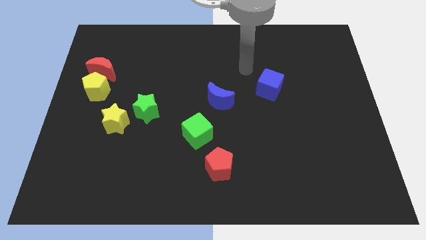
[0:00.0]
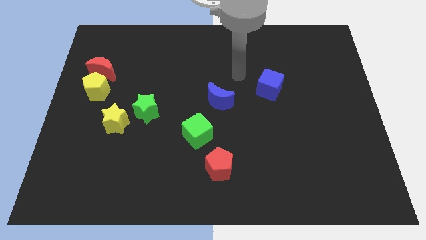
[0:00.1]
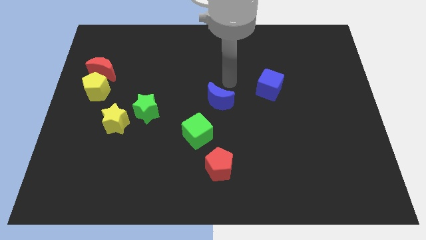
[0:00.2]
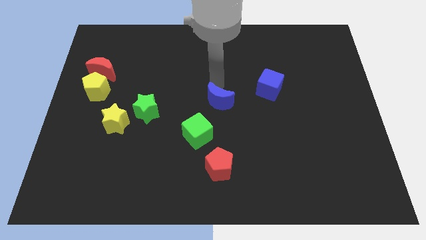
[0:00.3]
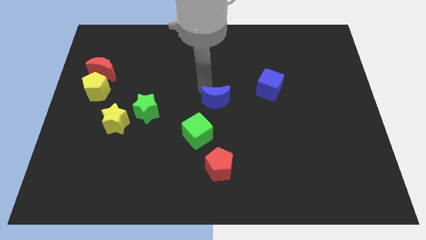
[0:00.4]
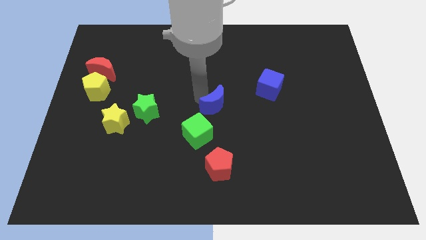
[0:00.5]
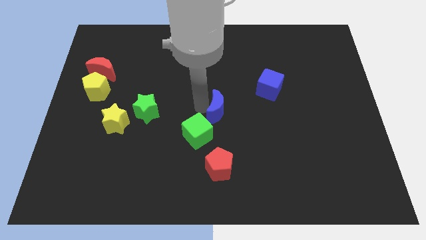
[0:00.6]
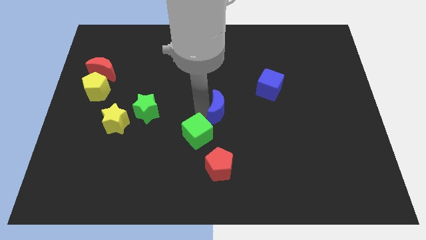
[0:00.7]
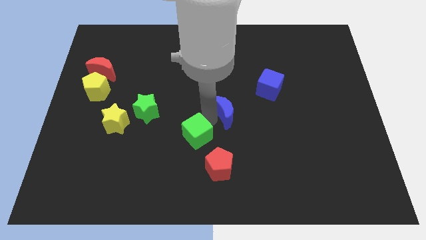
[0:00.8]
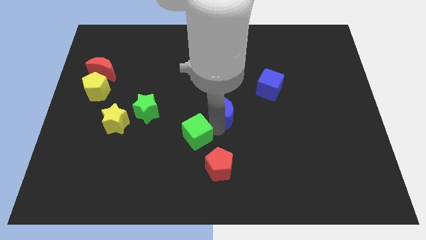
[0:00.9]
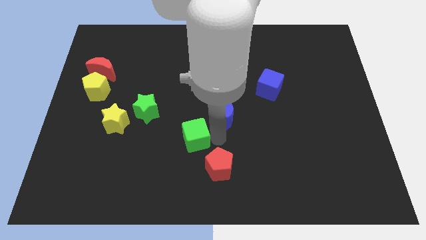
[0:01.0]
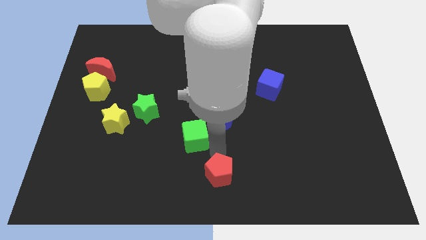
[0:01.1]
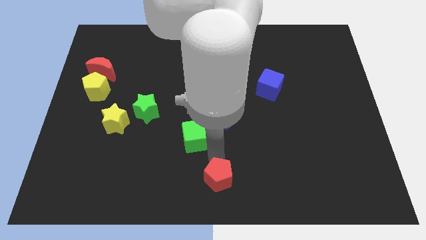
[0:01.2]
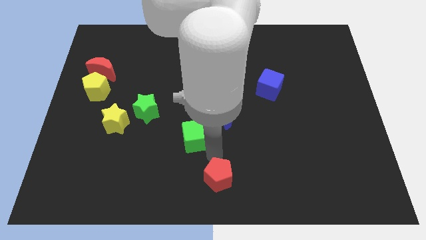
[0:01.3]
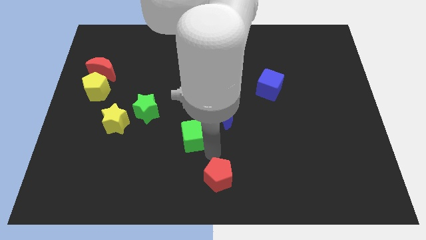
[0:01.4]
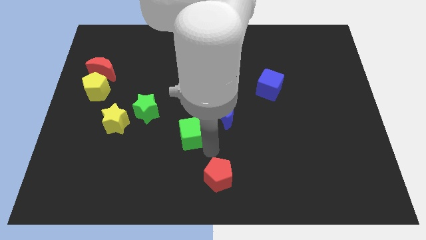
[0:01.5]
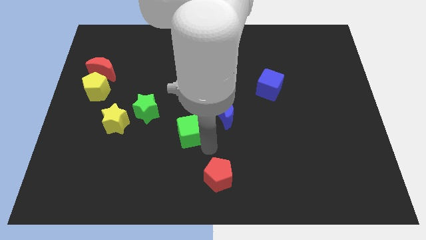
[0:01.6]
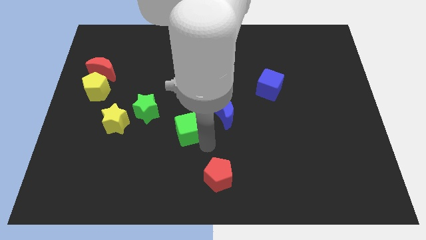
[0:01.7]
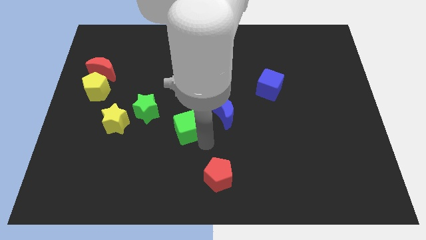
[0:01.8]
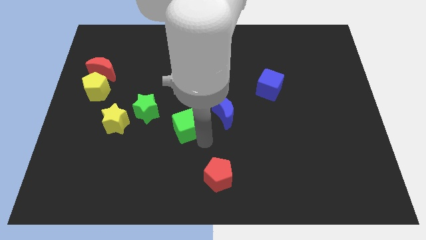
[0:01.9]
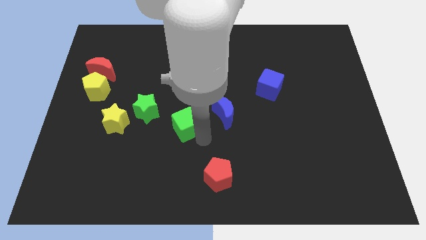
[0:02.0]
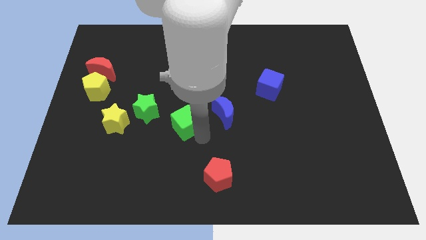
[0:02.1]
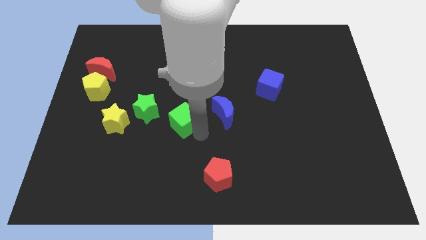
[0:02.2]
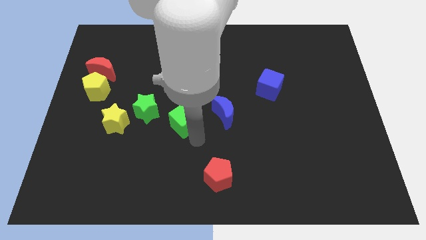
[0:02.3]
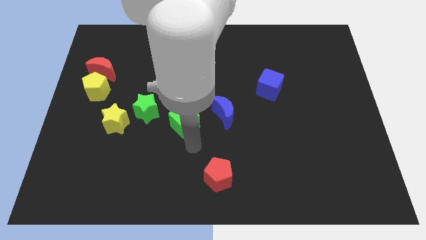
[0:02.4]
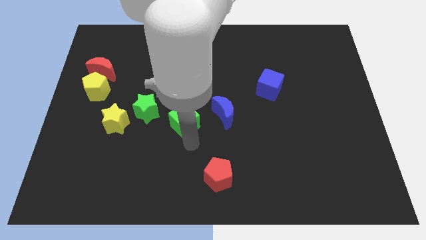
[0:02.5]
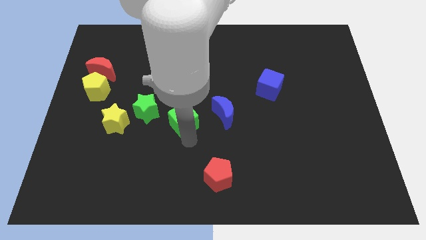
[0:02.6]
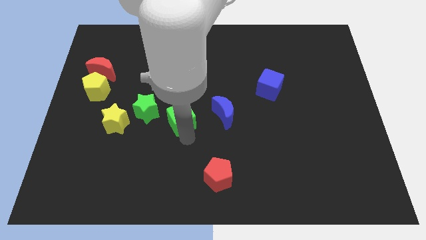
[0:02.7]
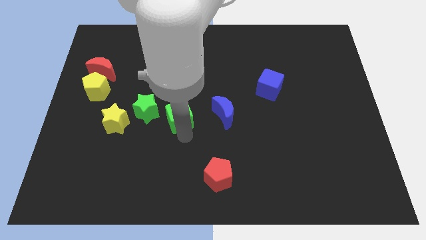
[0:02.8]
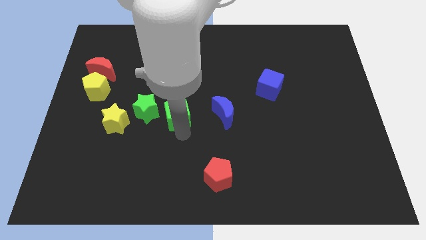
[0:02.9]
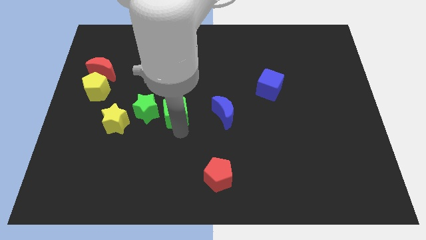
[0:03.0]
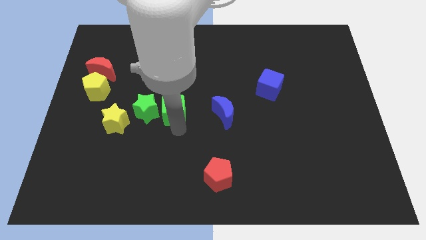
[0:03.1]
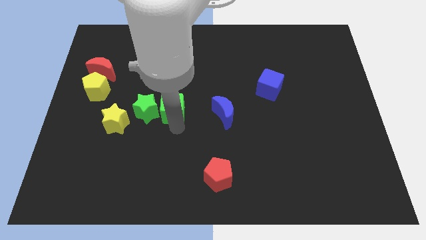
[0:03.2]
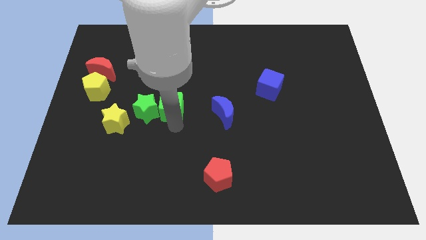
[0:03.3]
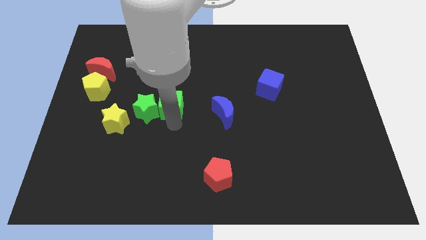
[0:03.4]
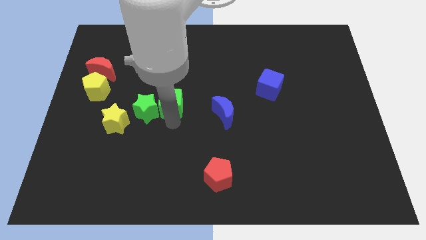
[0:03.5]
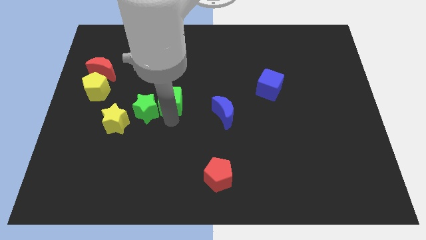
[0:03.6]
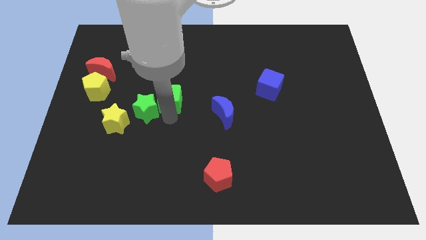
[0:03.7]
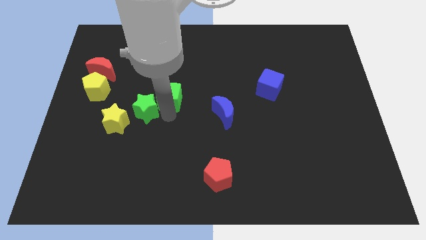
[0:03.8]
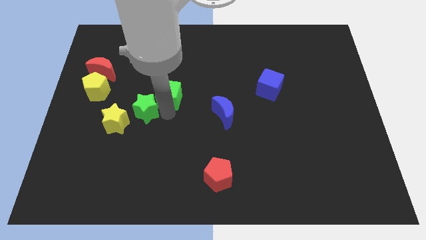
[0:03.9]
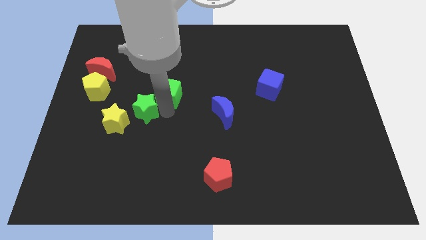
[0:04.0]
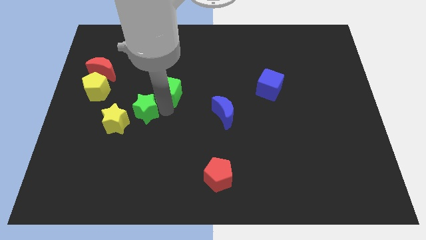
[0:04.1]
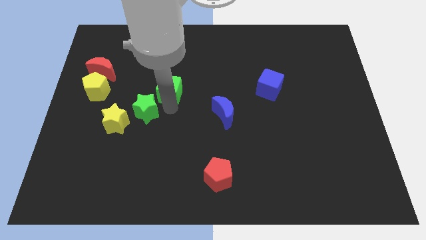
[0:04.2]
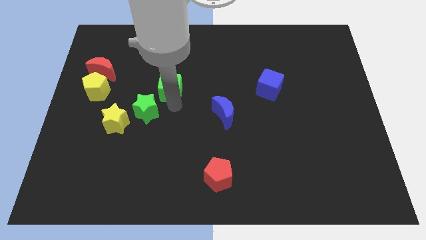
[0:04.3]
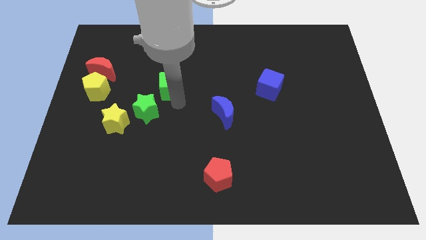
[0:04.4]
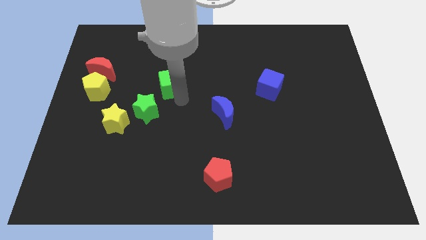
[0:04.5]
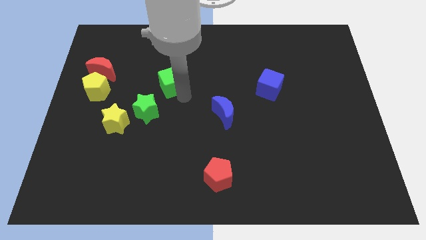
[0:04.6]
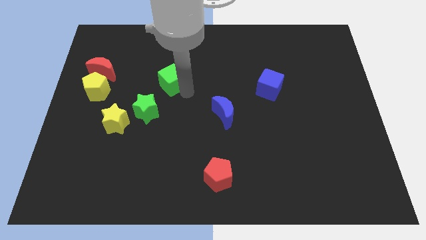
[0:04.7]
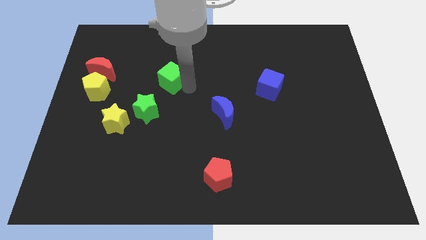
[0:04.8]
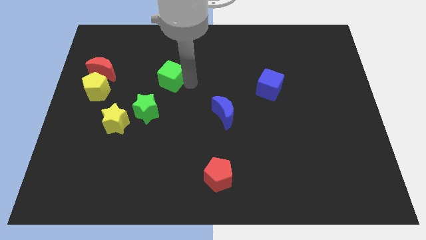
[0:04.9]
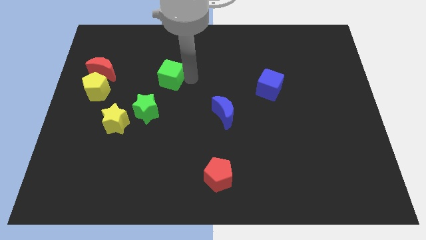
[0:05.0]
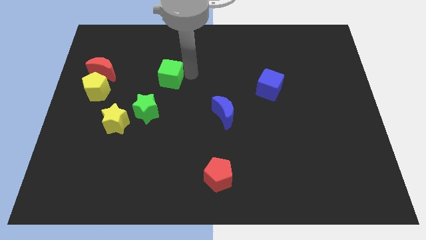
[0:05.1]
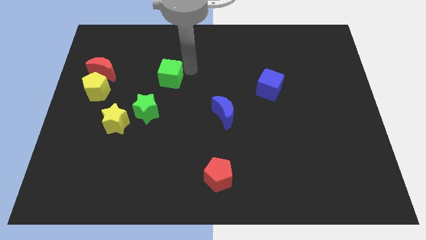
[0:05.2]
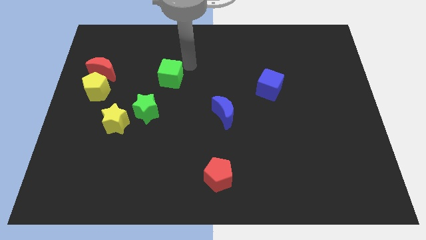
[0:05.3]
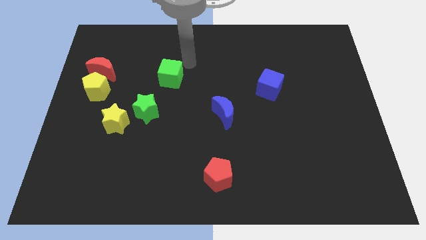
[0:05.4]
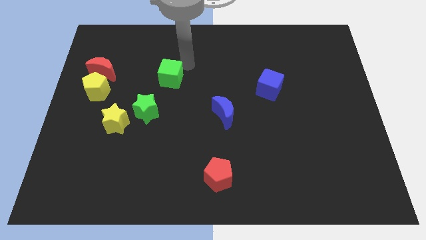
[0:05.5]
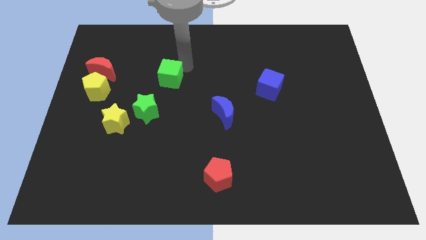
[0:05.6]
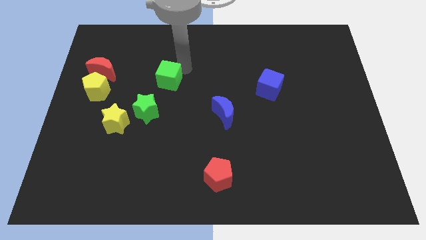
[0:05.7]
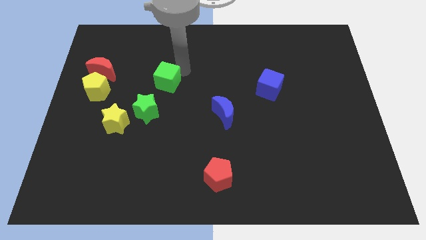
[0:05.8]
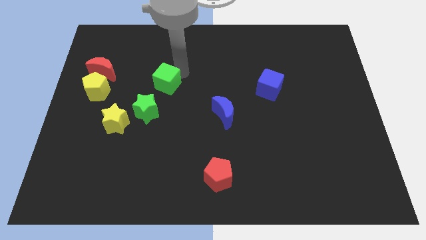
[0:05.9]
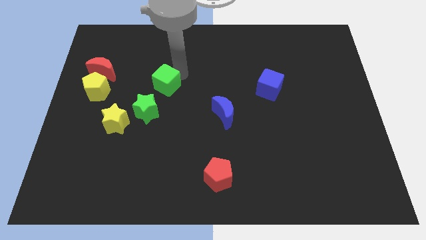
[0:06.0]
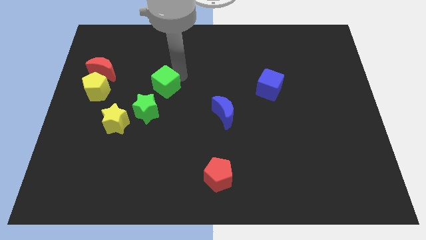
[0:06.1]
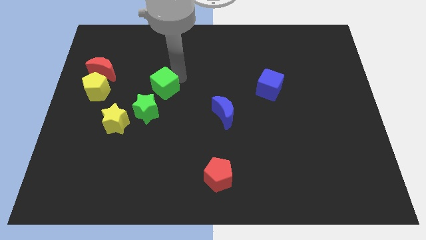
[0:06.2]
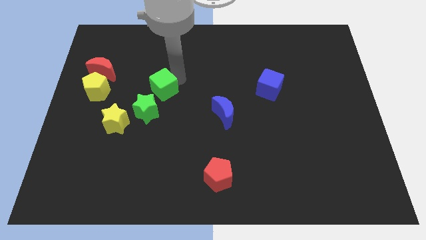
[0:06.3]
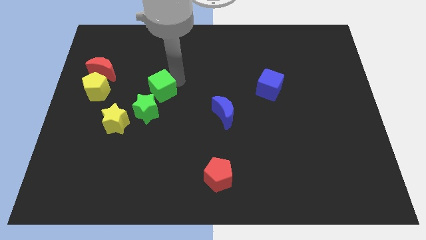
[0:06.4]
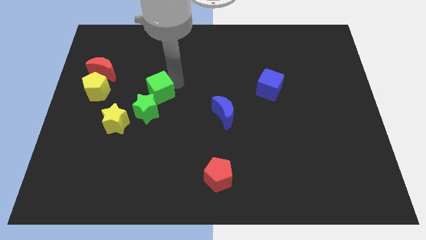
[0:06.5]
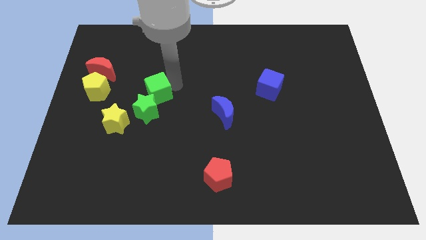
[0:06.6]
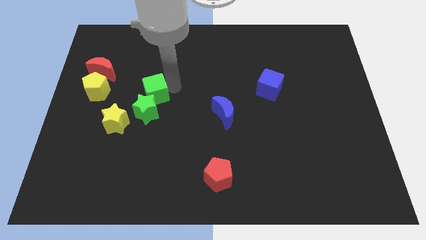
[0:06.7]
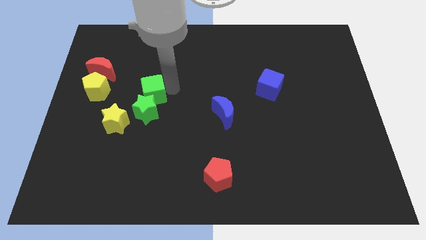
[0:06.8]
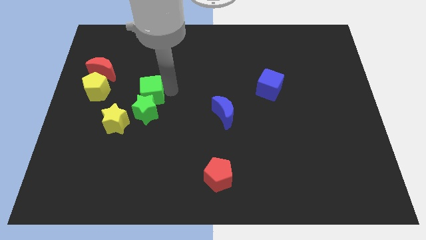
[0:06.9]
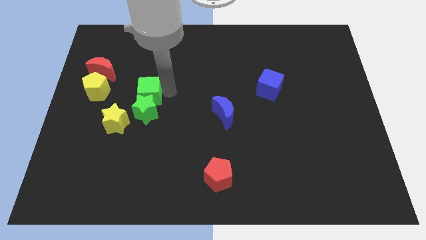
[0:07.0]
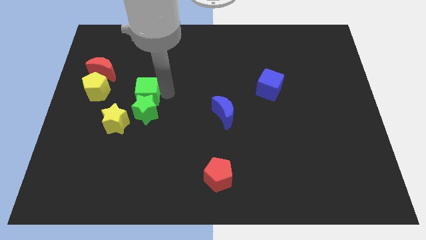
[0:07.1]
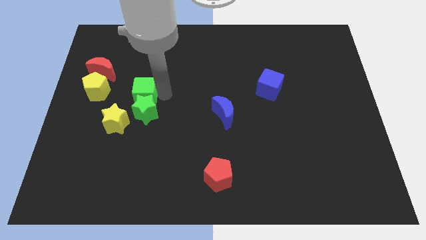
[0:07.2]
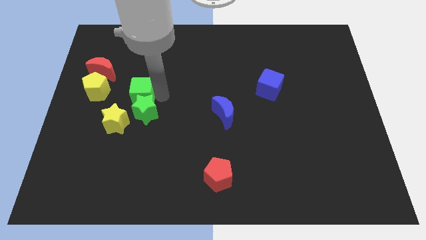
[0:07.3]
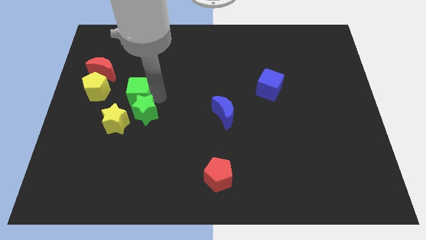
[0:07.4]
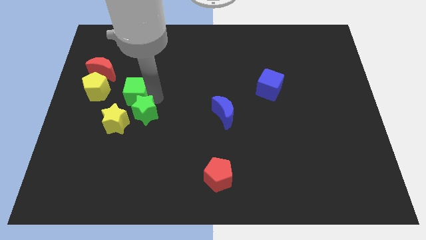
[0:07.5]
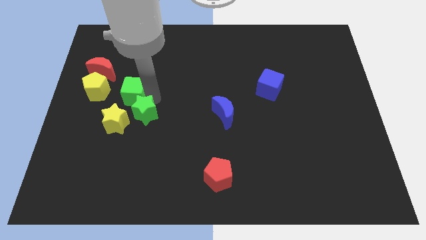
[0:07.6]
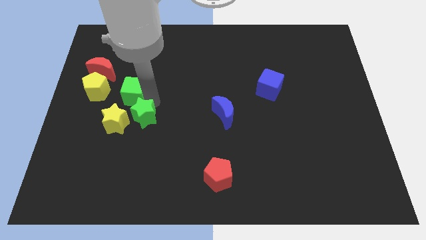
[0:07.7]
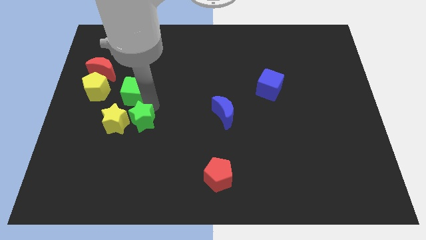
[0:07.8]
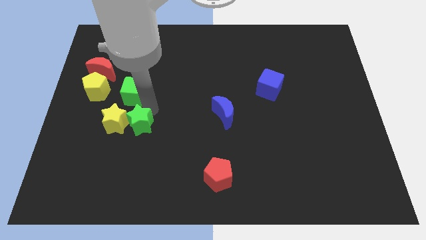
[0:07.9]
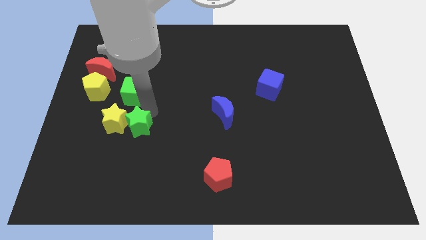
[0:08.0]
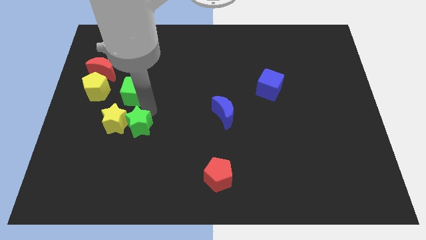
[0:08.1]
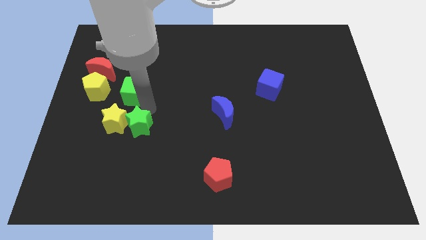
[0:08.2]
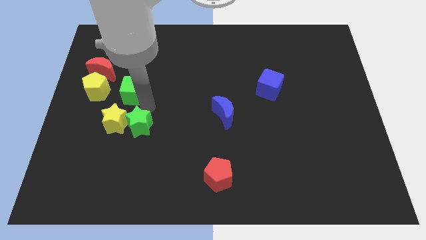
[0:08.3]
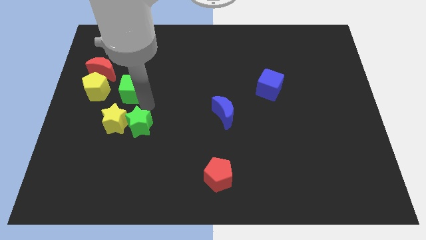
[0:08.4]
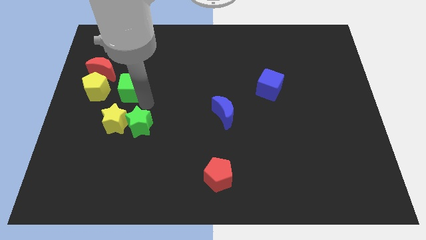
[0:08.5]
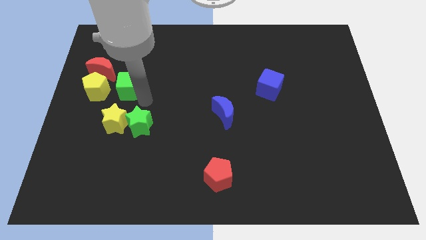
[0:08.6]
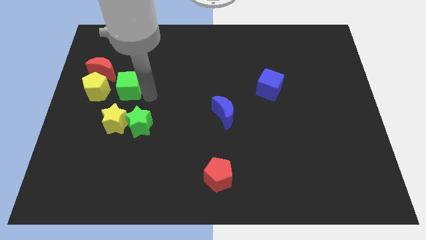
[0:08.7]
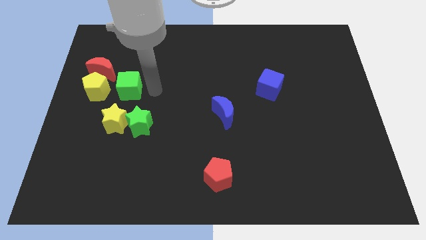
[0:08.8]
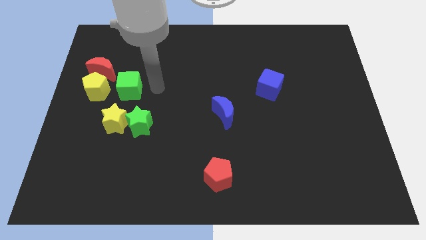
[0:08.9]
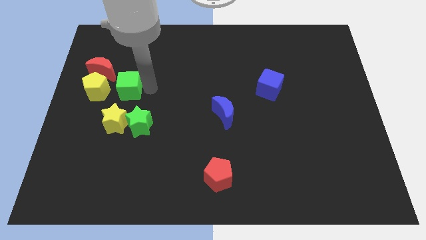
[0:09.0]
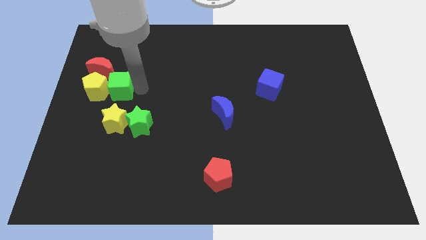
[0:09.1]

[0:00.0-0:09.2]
put the green cube close to the yellow pentagon
